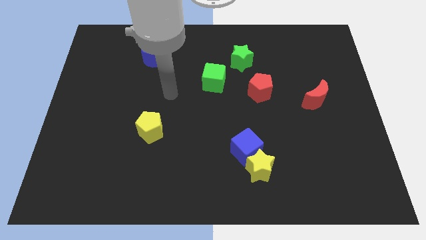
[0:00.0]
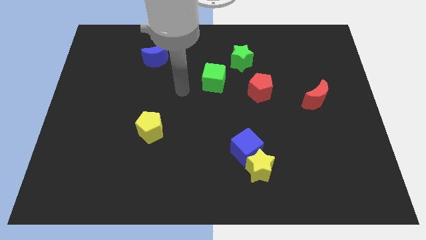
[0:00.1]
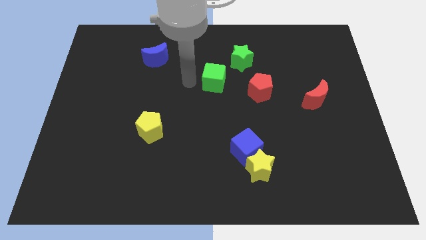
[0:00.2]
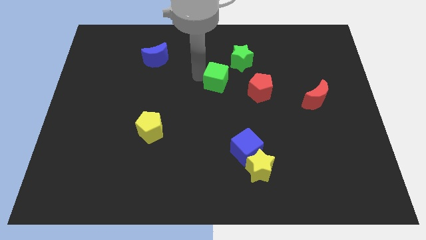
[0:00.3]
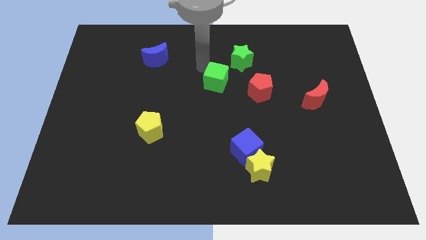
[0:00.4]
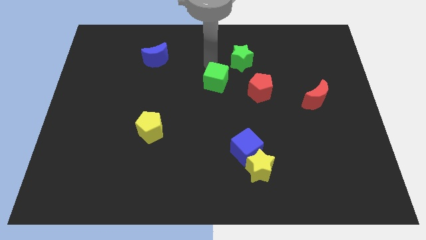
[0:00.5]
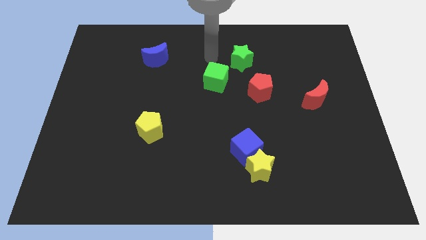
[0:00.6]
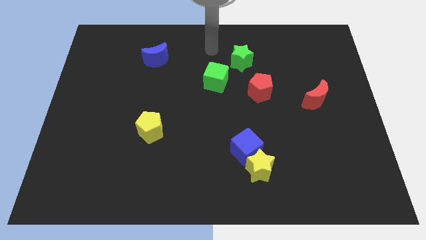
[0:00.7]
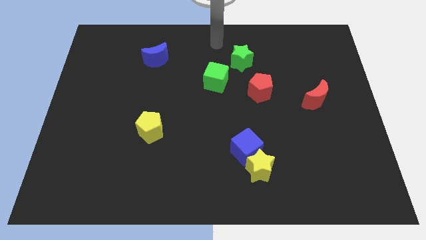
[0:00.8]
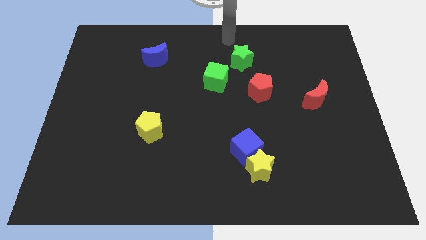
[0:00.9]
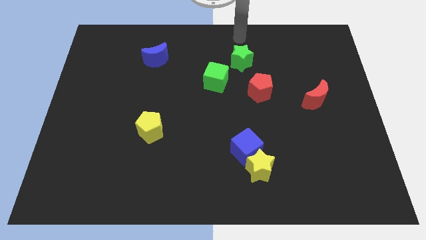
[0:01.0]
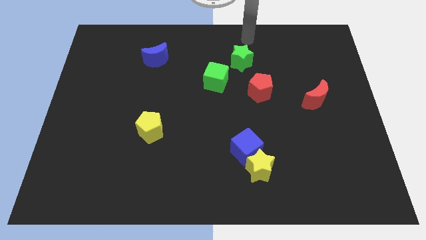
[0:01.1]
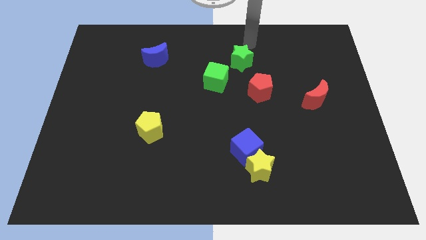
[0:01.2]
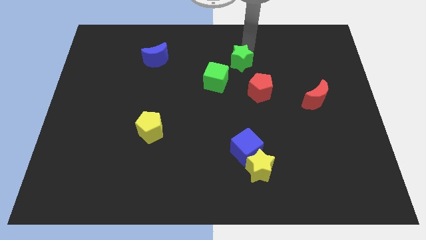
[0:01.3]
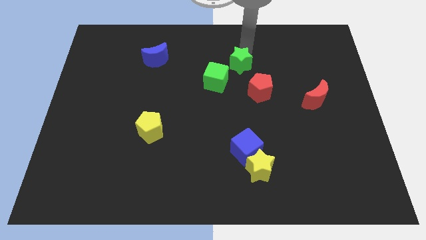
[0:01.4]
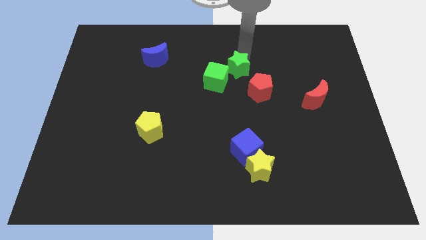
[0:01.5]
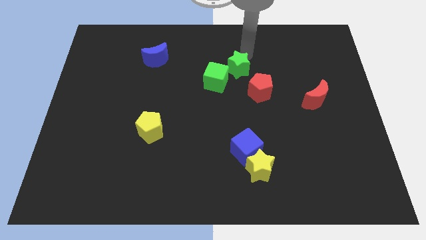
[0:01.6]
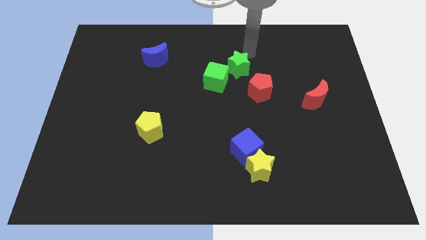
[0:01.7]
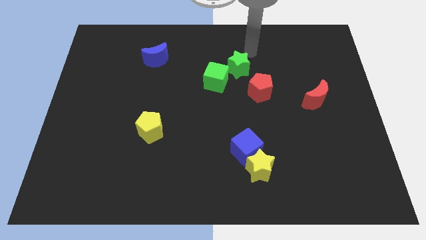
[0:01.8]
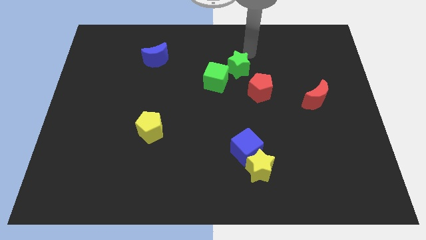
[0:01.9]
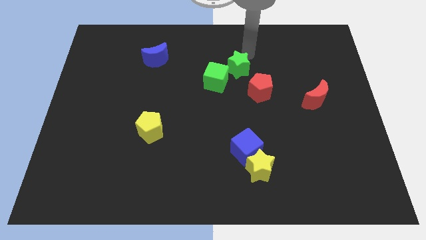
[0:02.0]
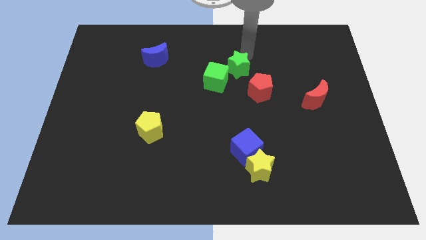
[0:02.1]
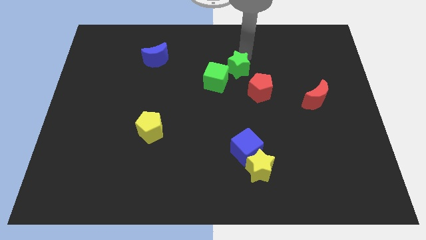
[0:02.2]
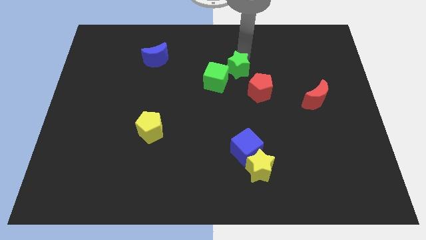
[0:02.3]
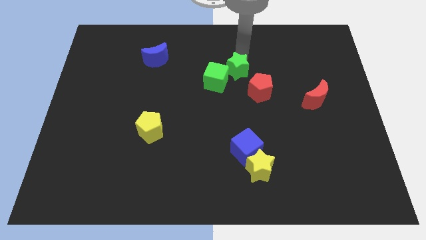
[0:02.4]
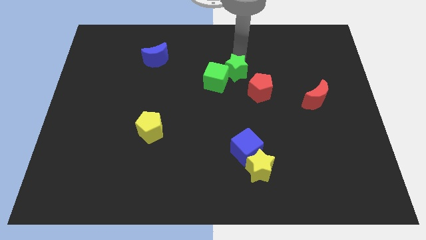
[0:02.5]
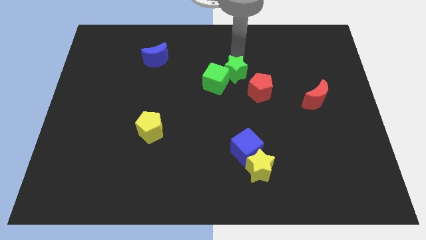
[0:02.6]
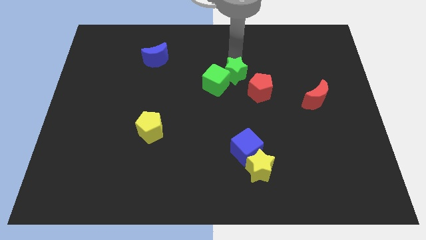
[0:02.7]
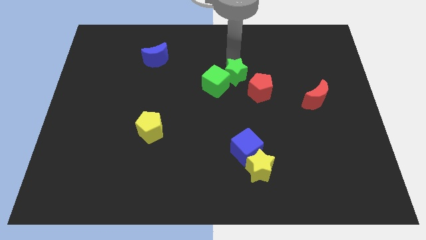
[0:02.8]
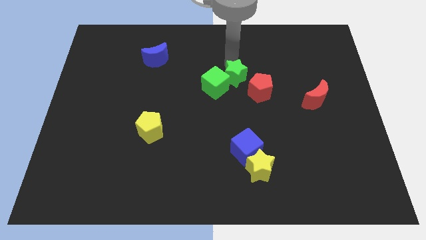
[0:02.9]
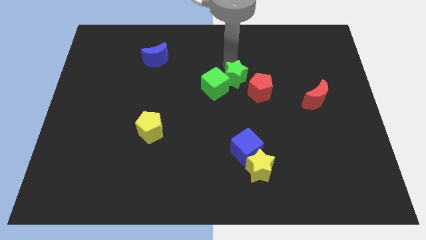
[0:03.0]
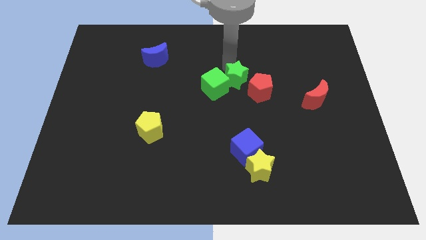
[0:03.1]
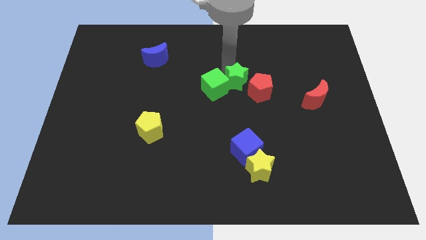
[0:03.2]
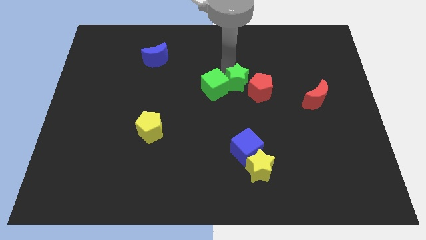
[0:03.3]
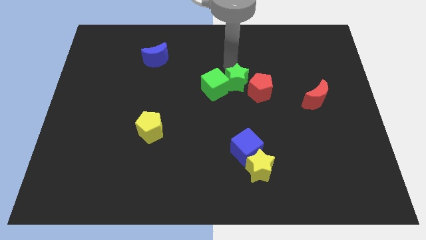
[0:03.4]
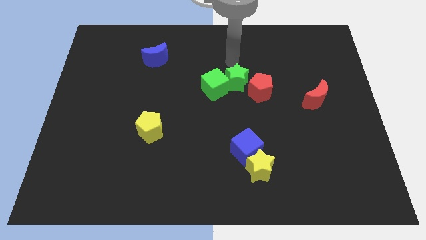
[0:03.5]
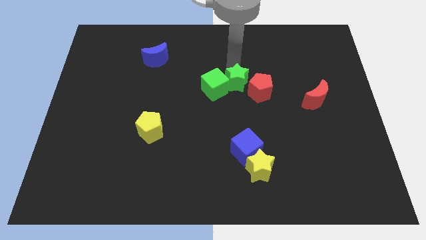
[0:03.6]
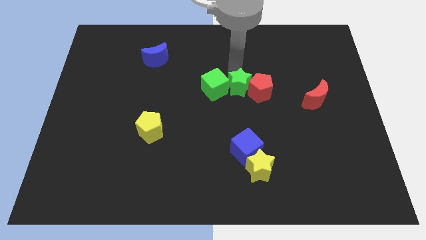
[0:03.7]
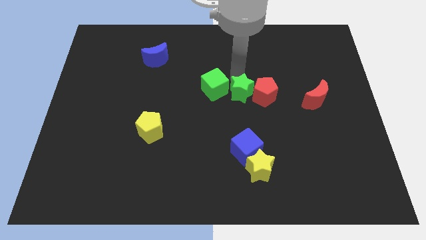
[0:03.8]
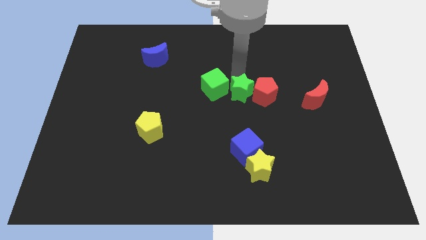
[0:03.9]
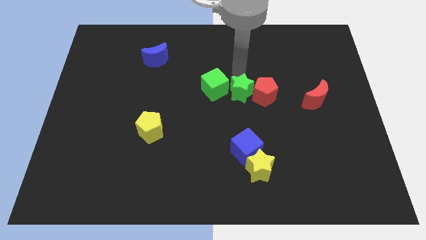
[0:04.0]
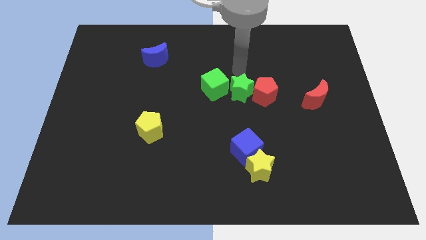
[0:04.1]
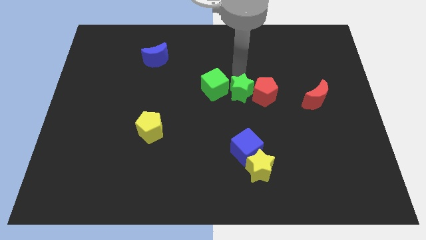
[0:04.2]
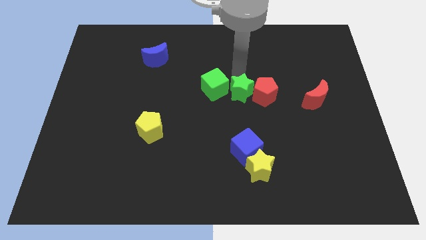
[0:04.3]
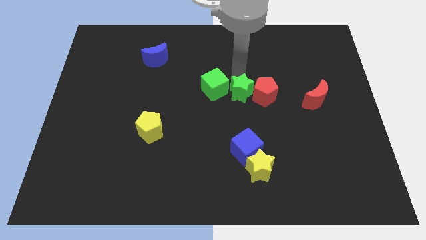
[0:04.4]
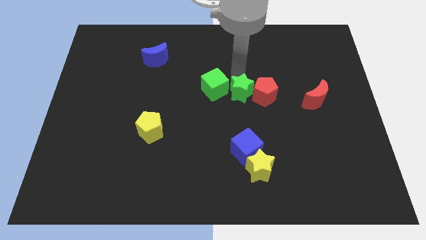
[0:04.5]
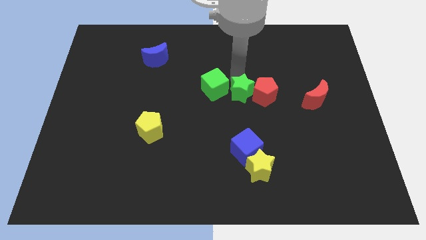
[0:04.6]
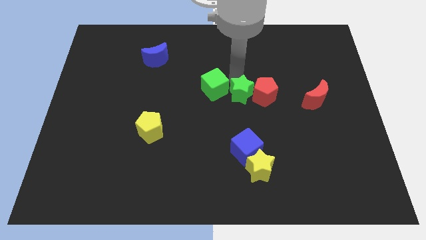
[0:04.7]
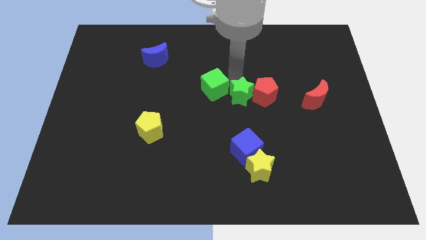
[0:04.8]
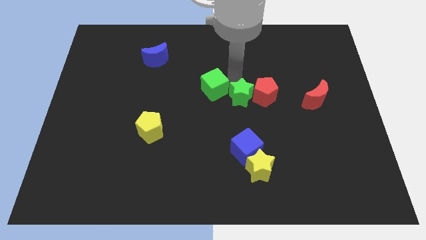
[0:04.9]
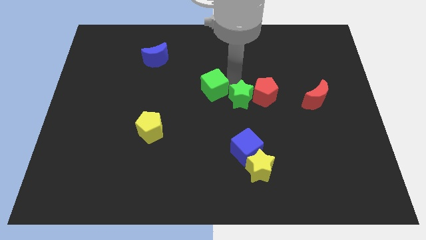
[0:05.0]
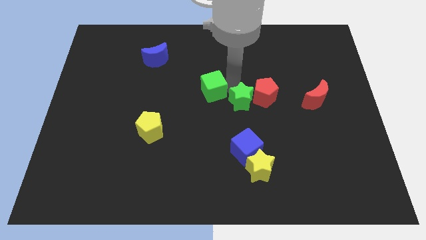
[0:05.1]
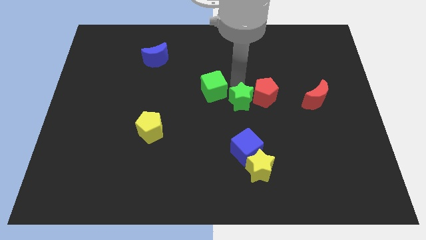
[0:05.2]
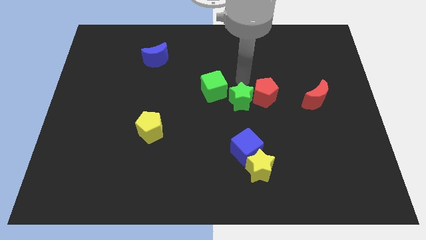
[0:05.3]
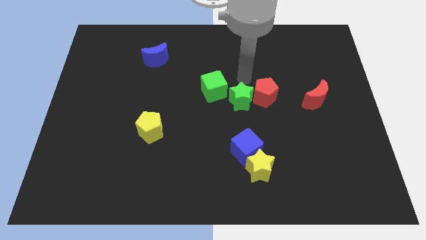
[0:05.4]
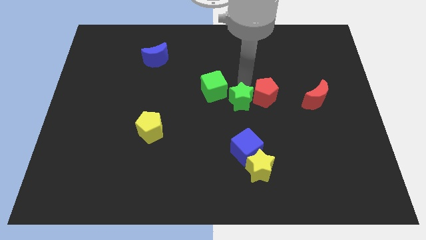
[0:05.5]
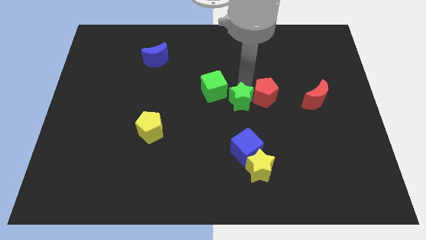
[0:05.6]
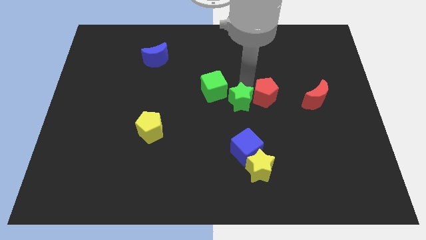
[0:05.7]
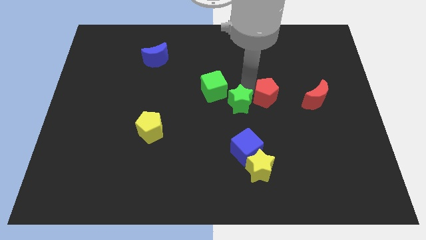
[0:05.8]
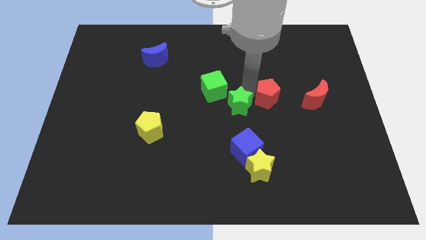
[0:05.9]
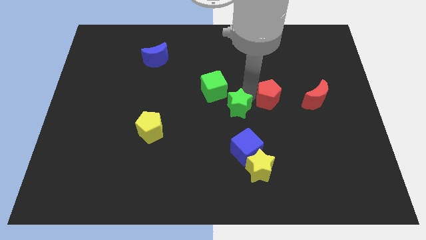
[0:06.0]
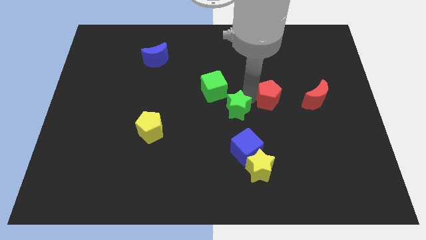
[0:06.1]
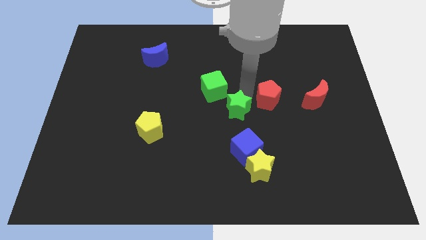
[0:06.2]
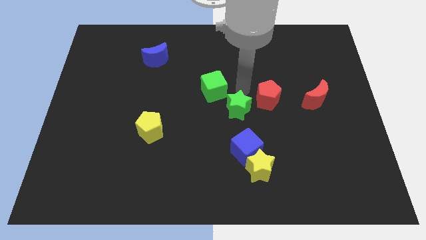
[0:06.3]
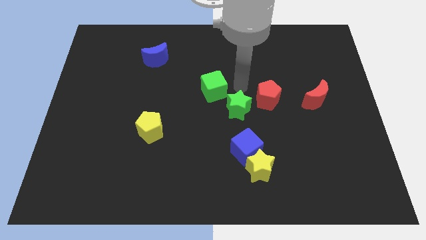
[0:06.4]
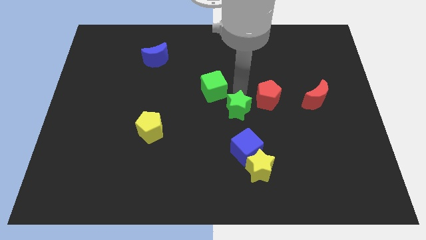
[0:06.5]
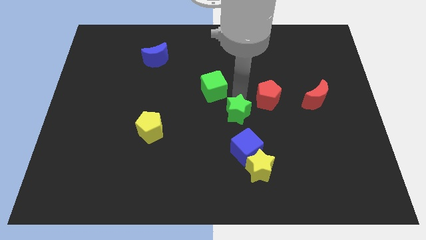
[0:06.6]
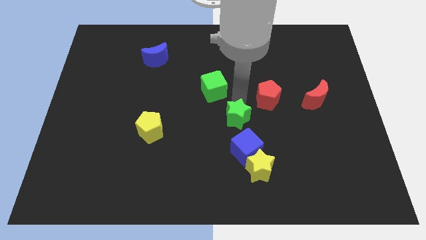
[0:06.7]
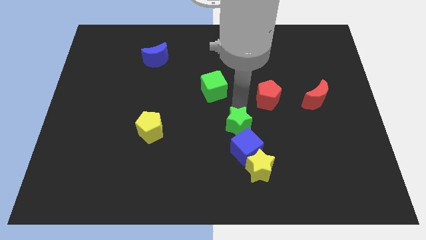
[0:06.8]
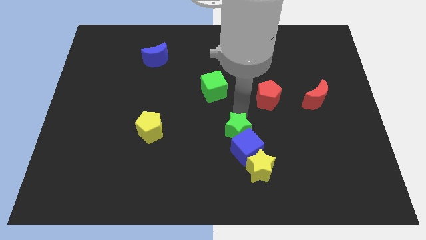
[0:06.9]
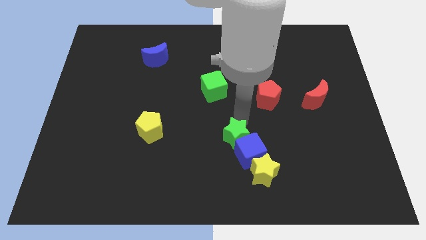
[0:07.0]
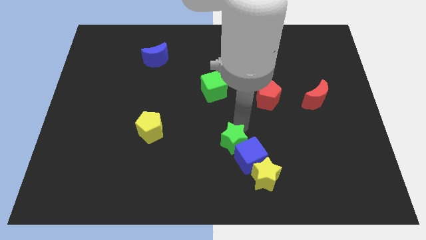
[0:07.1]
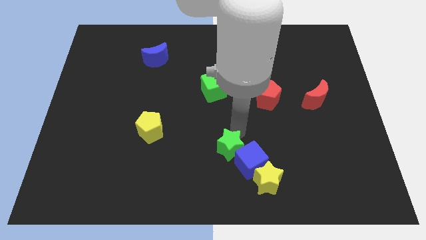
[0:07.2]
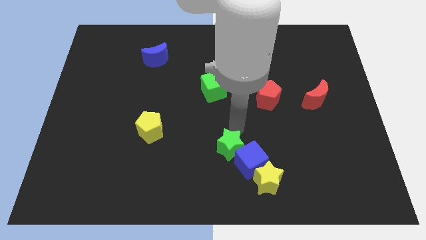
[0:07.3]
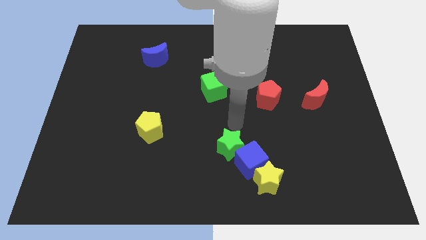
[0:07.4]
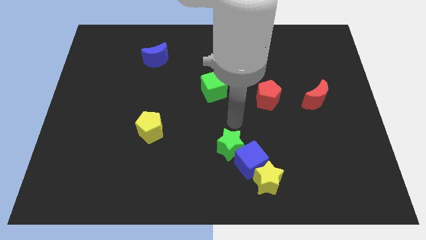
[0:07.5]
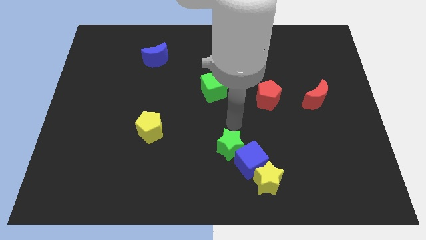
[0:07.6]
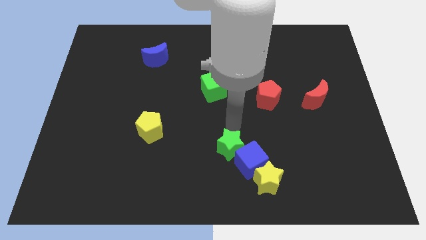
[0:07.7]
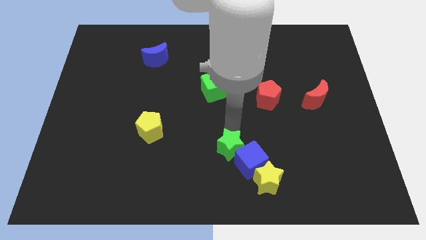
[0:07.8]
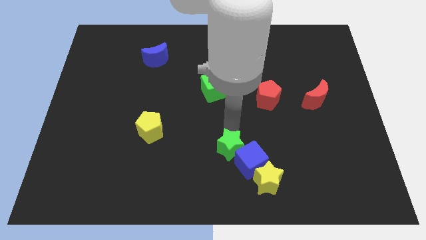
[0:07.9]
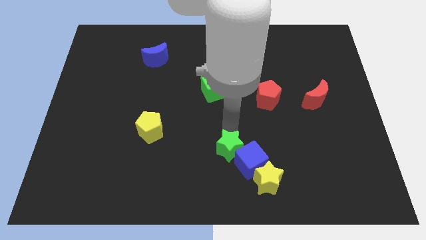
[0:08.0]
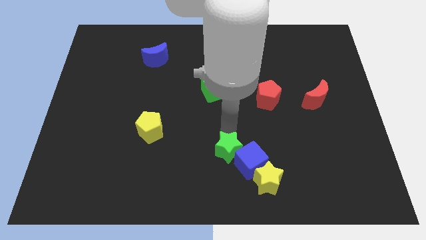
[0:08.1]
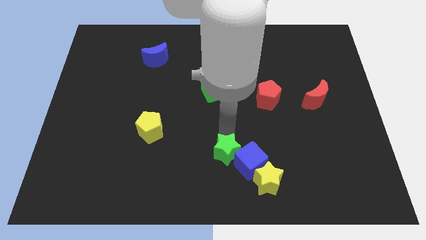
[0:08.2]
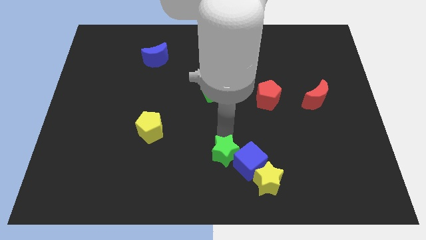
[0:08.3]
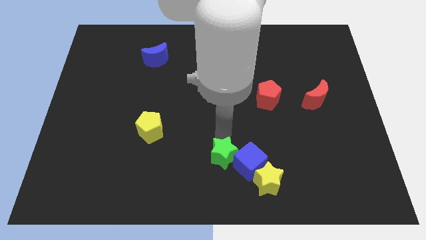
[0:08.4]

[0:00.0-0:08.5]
put the green star to the bottom side
